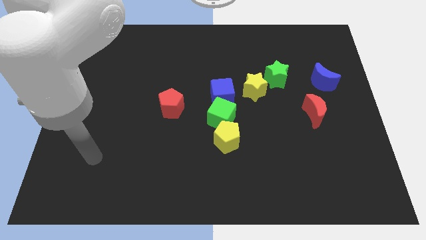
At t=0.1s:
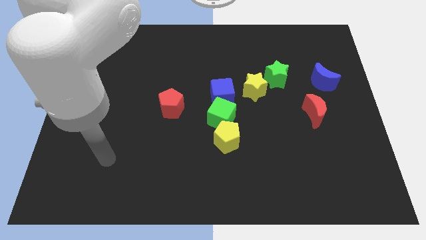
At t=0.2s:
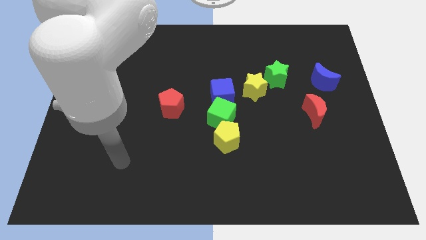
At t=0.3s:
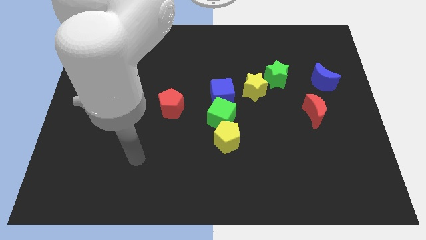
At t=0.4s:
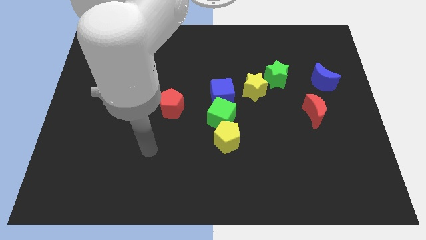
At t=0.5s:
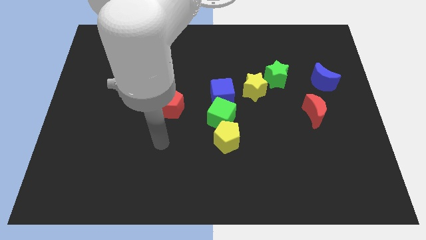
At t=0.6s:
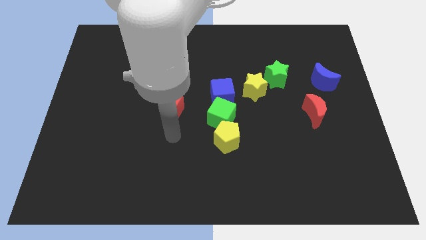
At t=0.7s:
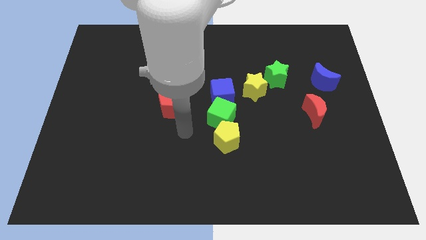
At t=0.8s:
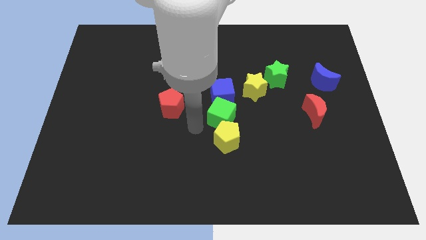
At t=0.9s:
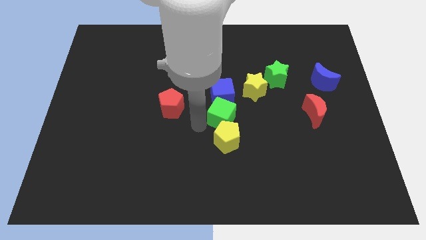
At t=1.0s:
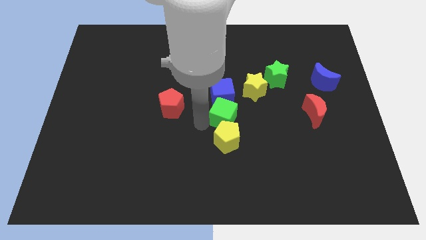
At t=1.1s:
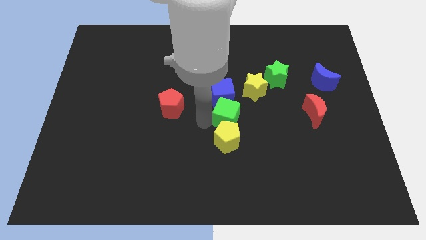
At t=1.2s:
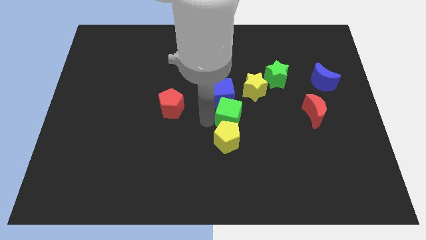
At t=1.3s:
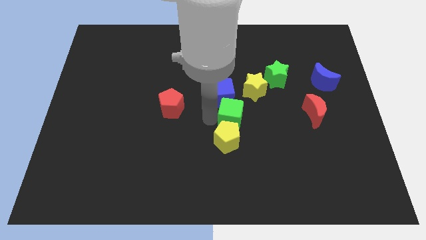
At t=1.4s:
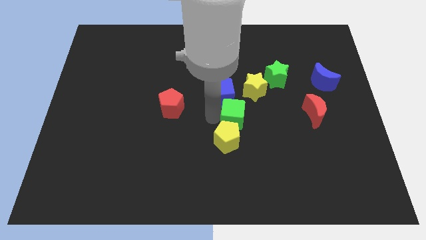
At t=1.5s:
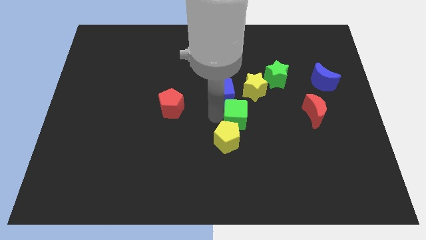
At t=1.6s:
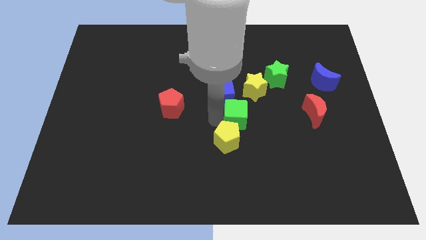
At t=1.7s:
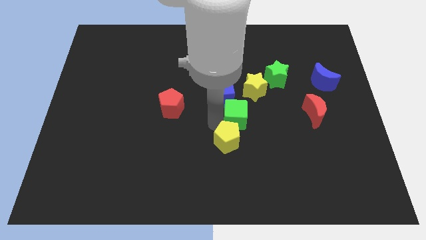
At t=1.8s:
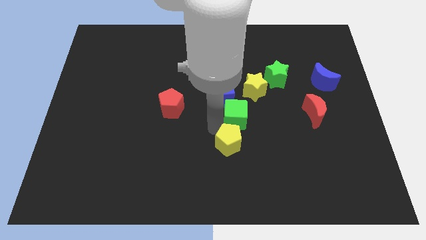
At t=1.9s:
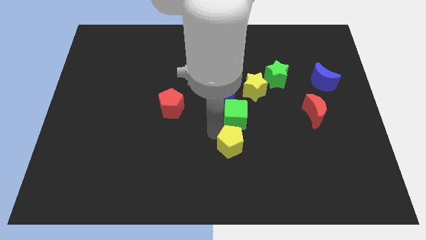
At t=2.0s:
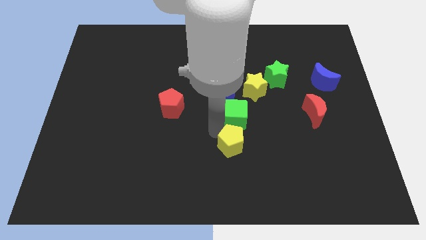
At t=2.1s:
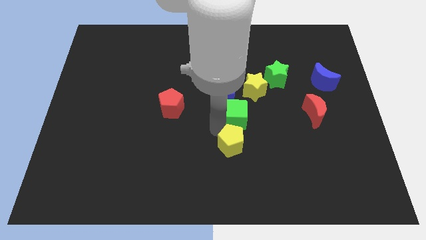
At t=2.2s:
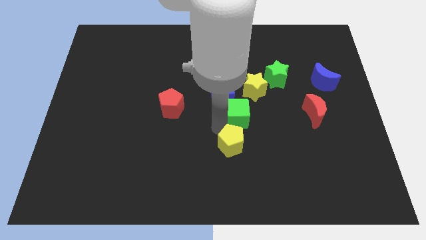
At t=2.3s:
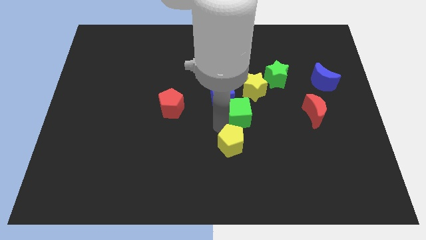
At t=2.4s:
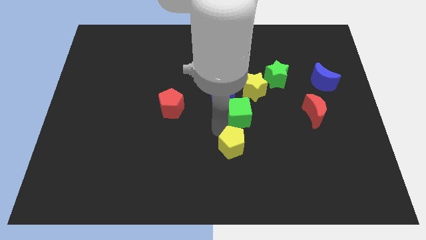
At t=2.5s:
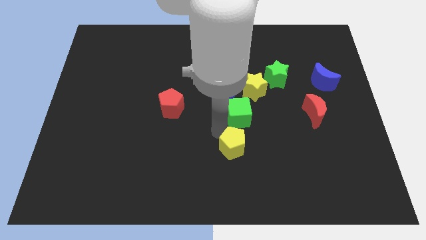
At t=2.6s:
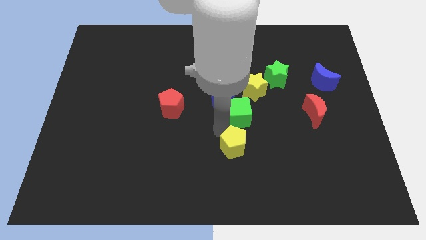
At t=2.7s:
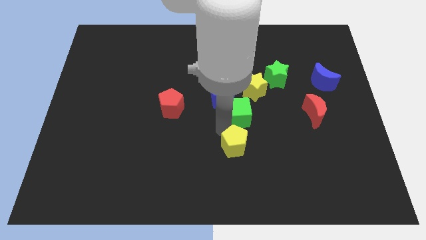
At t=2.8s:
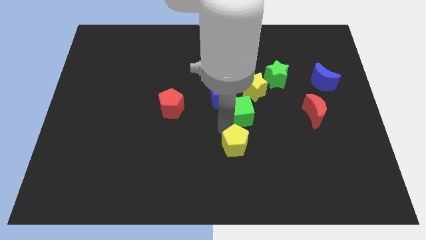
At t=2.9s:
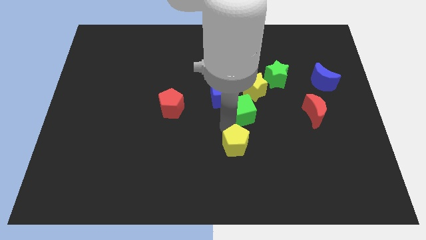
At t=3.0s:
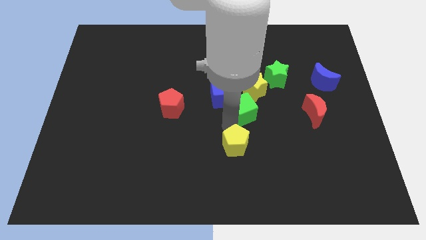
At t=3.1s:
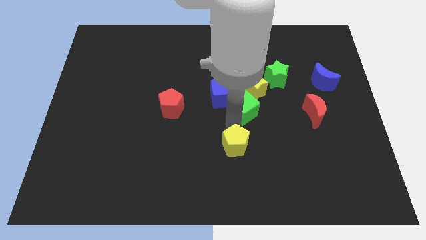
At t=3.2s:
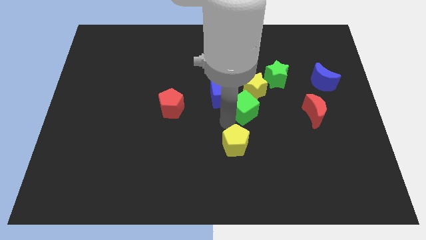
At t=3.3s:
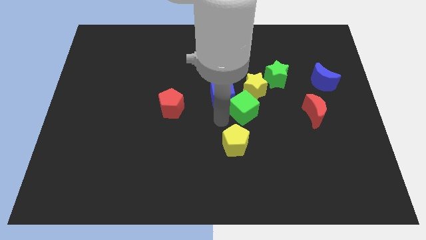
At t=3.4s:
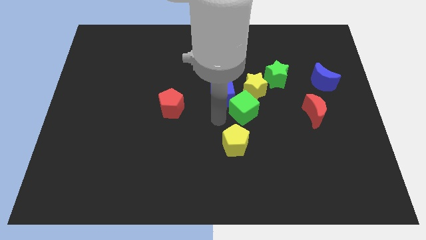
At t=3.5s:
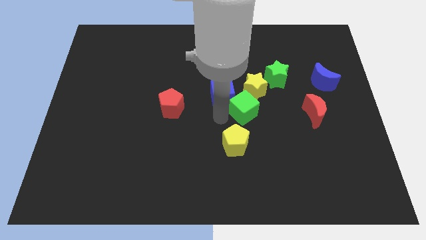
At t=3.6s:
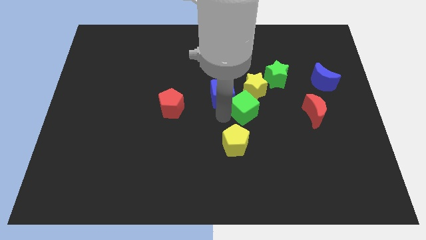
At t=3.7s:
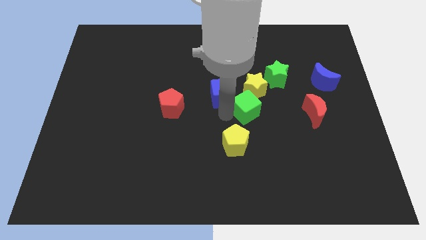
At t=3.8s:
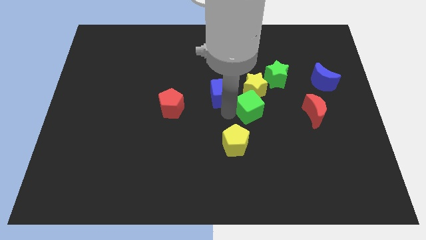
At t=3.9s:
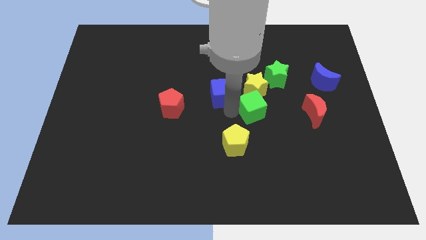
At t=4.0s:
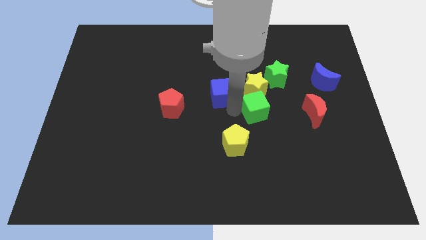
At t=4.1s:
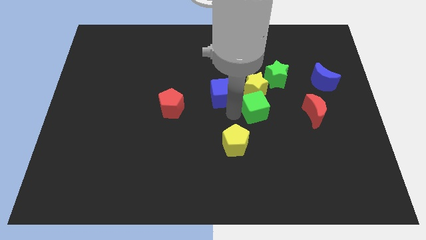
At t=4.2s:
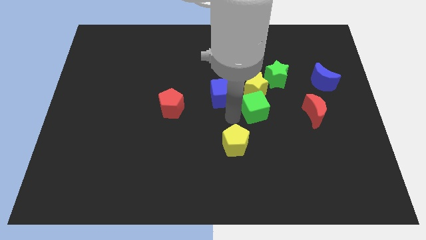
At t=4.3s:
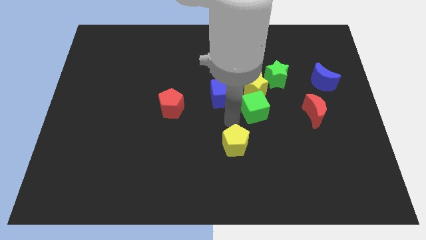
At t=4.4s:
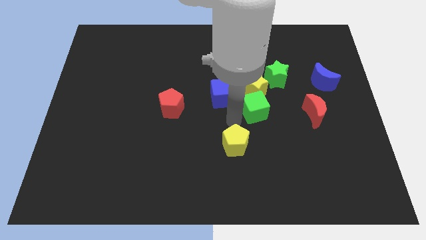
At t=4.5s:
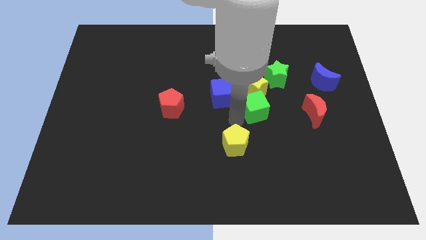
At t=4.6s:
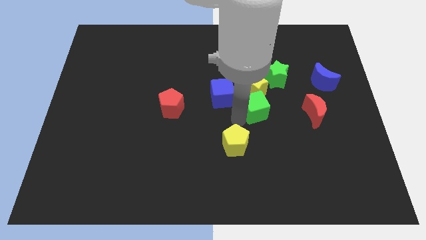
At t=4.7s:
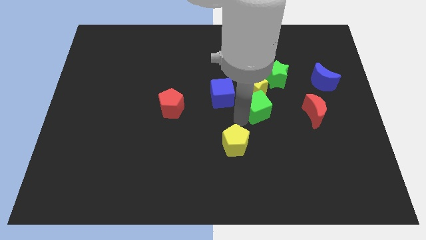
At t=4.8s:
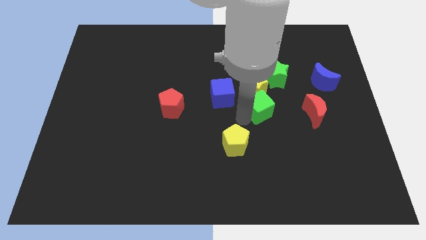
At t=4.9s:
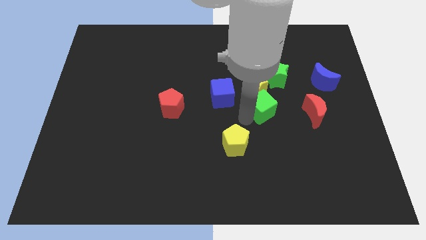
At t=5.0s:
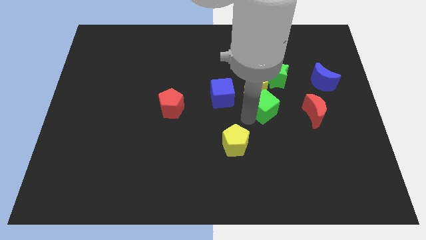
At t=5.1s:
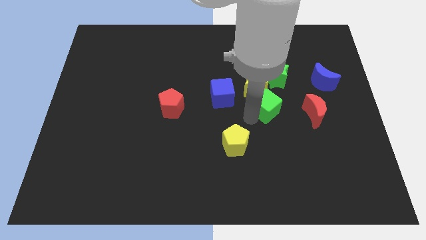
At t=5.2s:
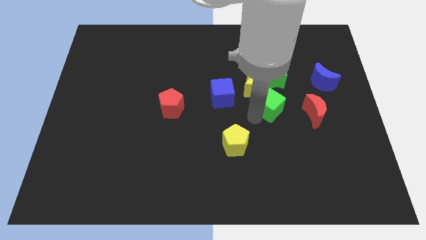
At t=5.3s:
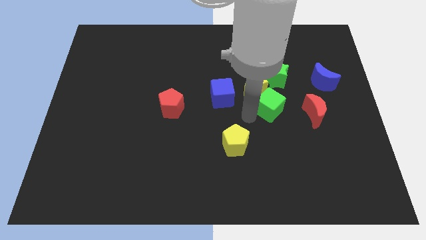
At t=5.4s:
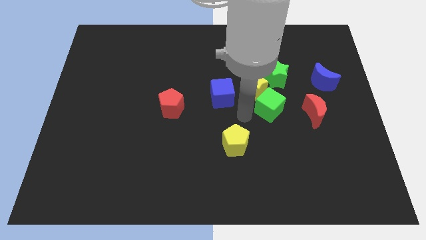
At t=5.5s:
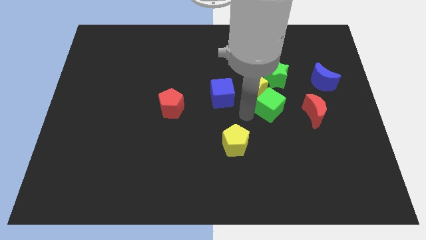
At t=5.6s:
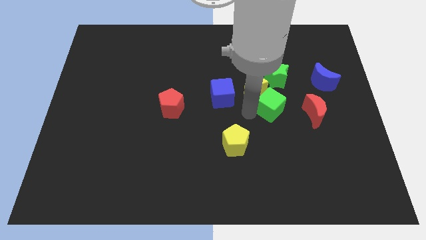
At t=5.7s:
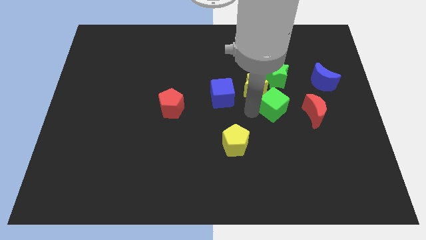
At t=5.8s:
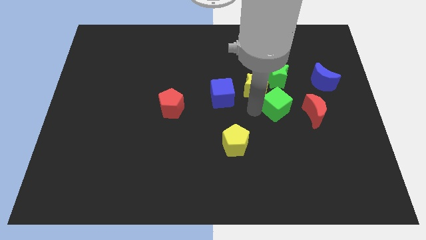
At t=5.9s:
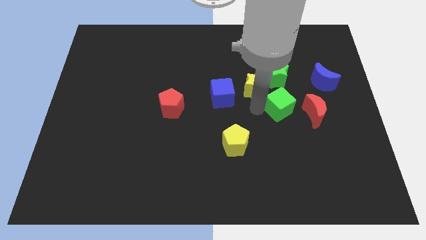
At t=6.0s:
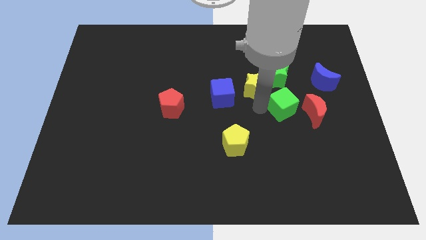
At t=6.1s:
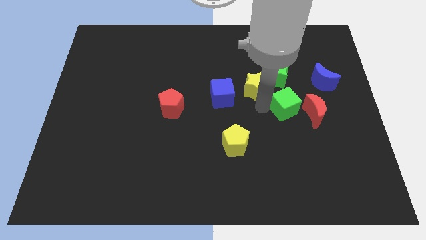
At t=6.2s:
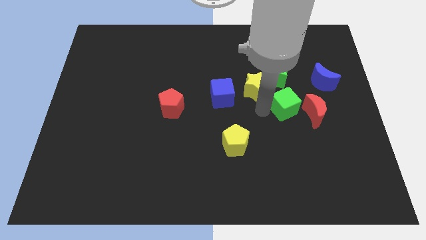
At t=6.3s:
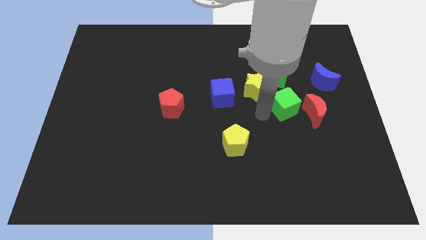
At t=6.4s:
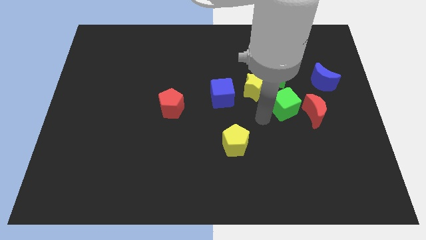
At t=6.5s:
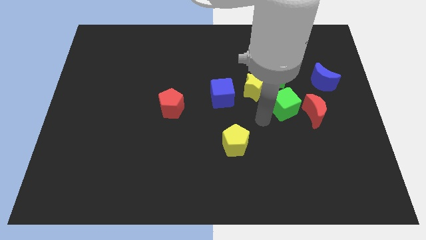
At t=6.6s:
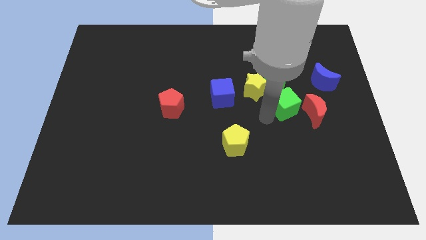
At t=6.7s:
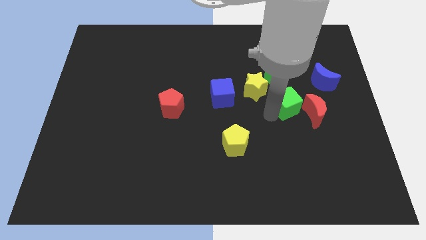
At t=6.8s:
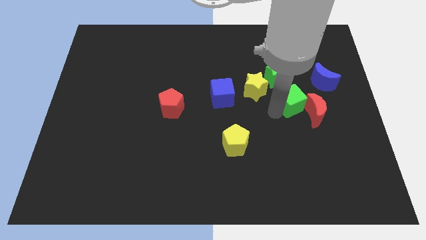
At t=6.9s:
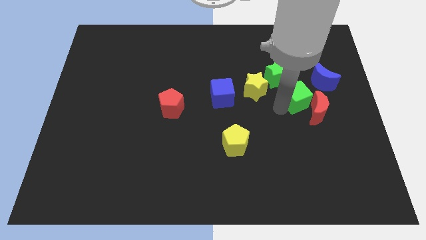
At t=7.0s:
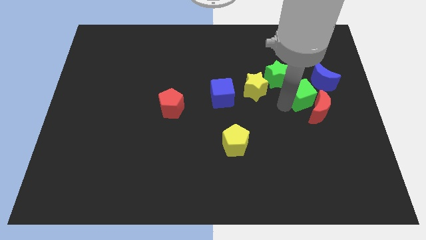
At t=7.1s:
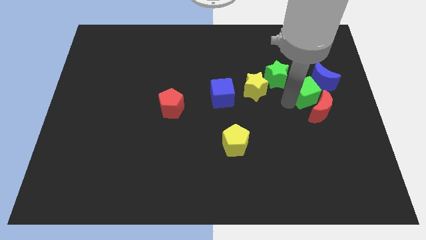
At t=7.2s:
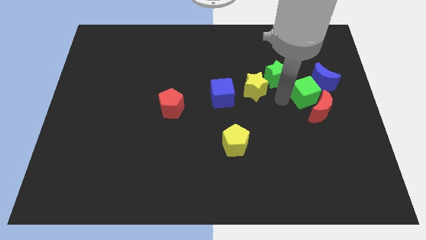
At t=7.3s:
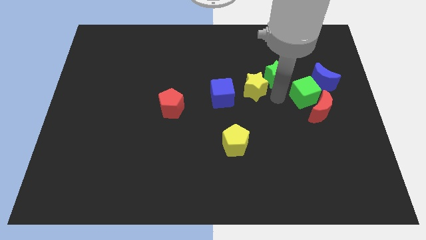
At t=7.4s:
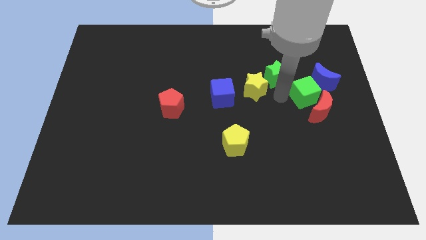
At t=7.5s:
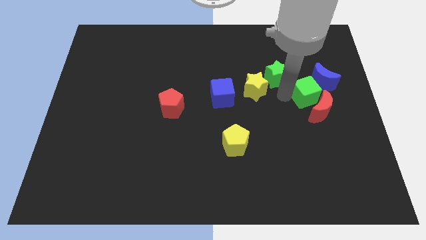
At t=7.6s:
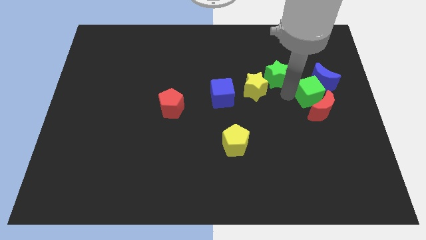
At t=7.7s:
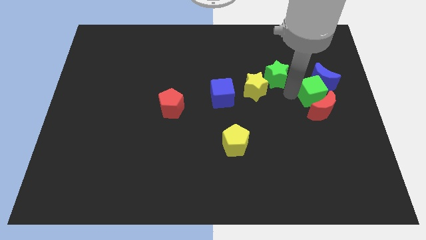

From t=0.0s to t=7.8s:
put the green cube to the right of the green star
